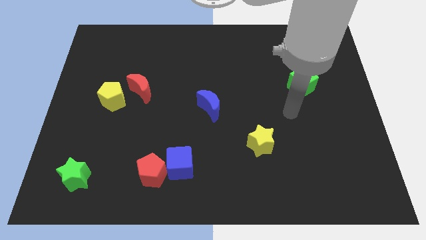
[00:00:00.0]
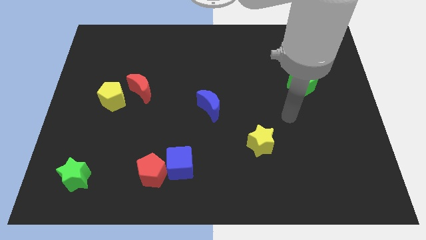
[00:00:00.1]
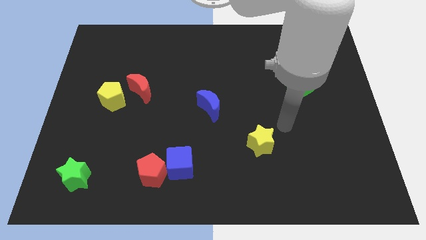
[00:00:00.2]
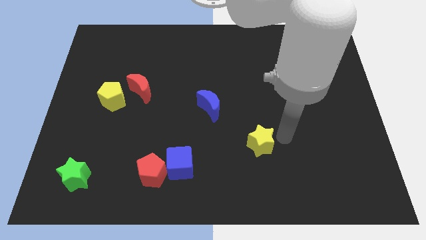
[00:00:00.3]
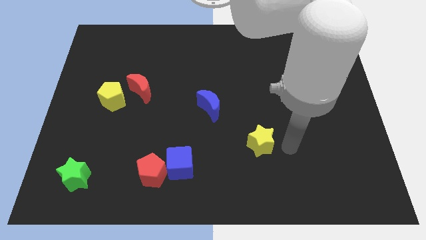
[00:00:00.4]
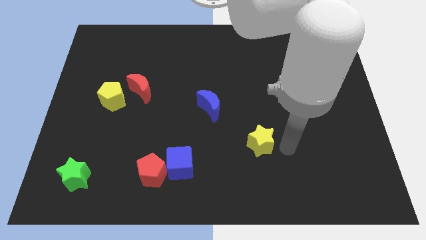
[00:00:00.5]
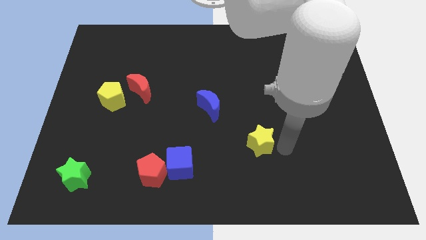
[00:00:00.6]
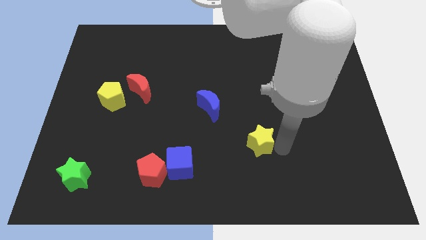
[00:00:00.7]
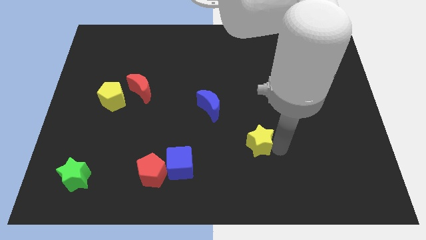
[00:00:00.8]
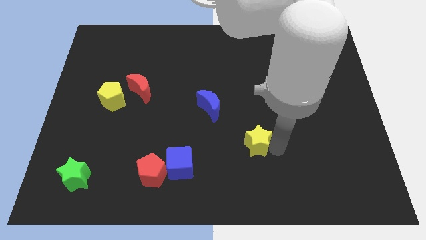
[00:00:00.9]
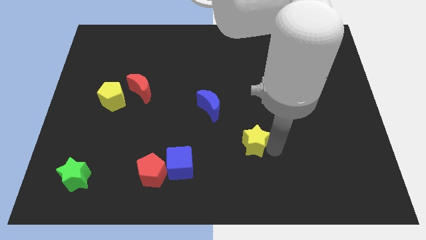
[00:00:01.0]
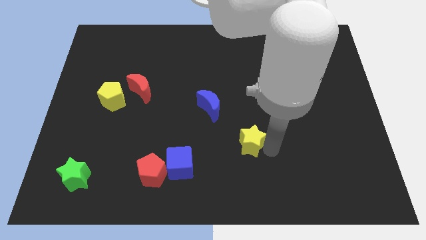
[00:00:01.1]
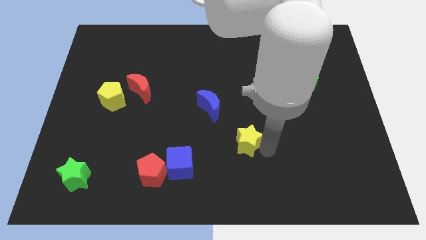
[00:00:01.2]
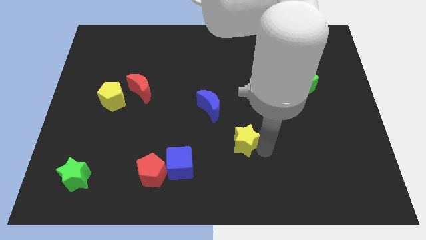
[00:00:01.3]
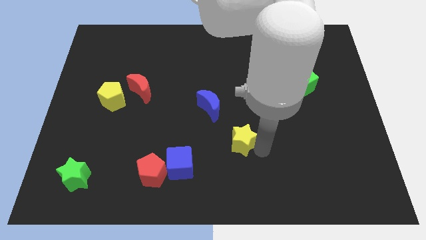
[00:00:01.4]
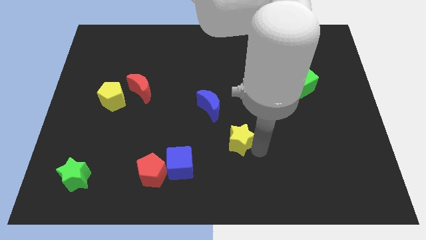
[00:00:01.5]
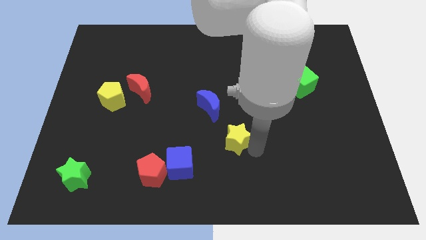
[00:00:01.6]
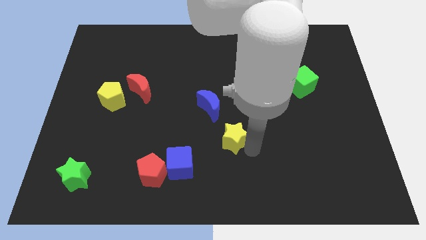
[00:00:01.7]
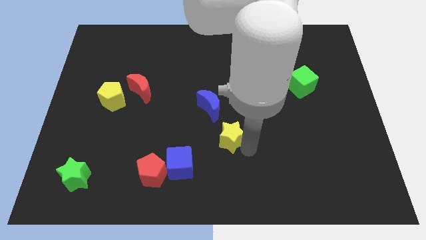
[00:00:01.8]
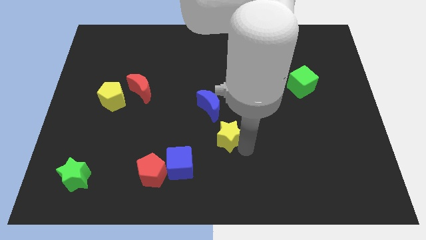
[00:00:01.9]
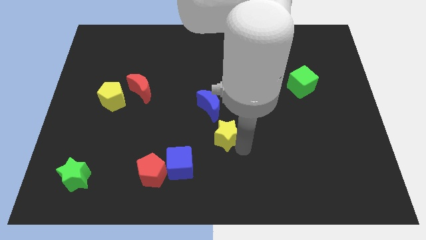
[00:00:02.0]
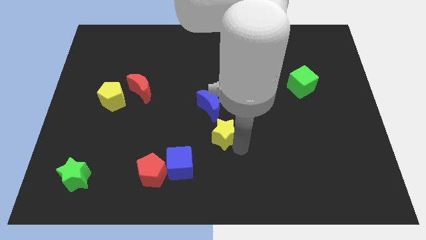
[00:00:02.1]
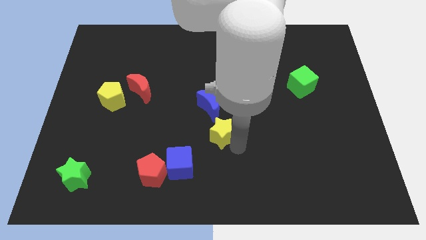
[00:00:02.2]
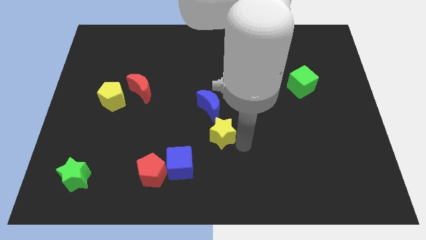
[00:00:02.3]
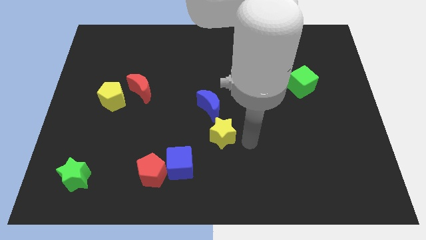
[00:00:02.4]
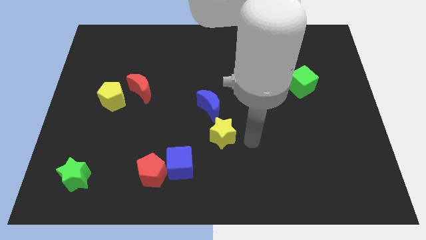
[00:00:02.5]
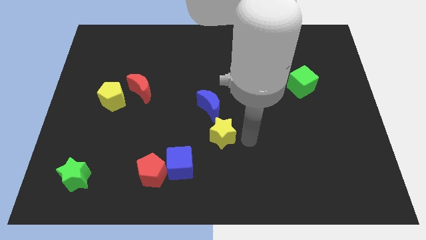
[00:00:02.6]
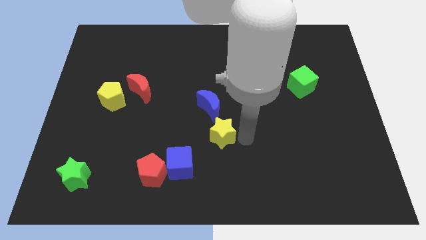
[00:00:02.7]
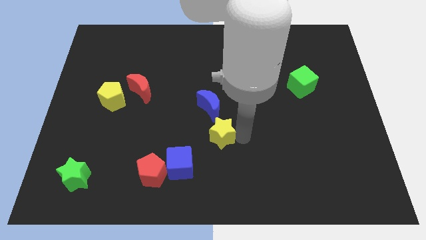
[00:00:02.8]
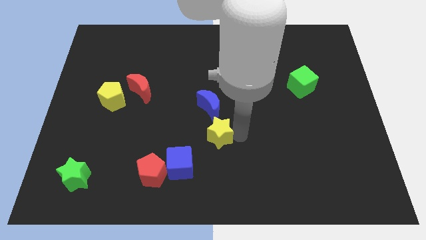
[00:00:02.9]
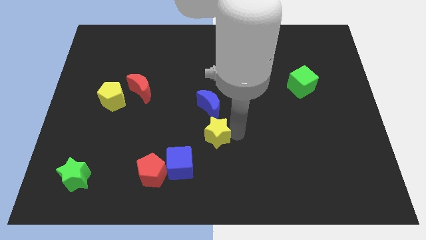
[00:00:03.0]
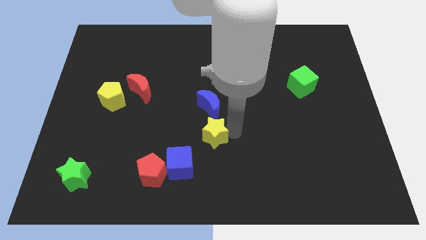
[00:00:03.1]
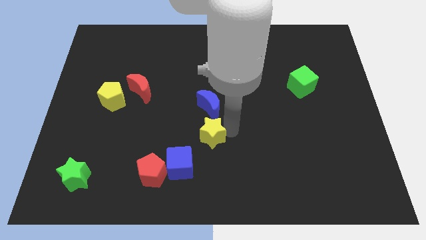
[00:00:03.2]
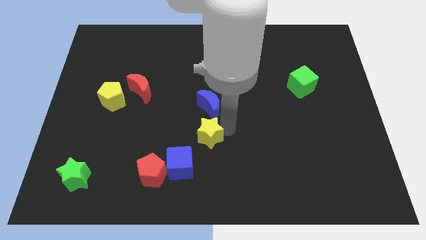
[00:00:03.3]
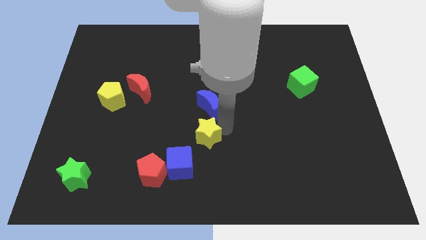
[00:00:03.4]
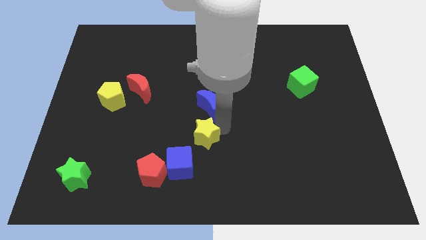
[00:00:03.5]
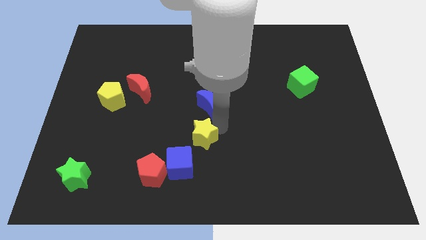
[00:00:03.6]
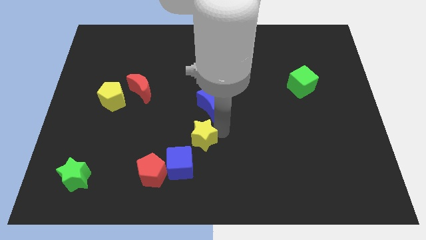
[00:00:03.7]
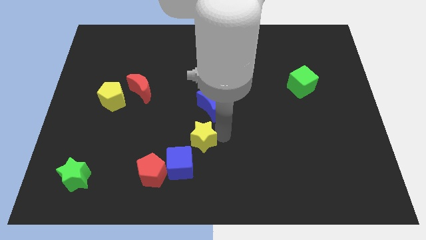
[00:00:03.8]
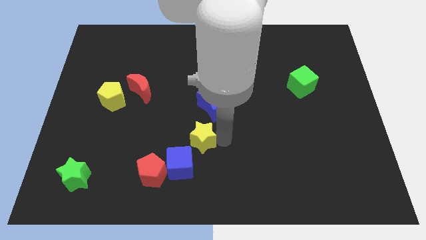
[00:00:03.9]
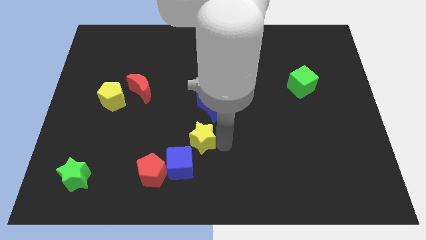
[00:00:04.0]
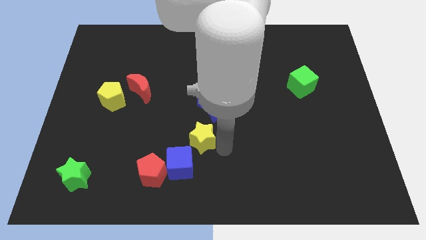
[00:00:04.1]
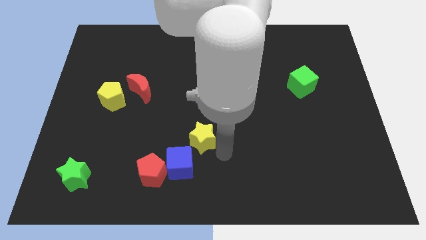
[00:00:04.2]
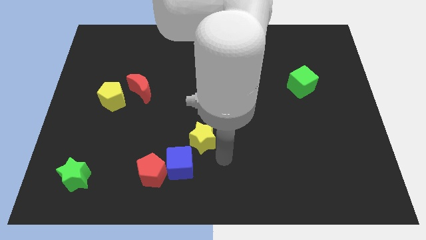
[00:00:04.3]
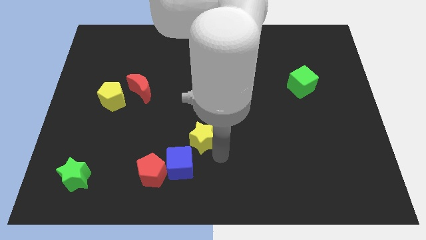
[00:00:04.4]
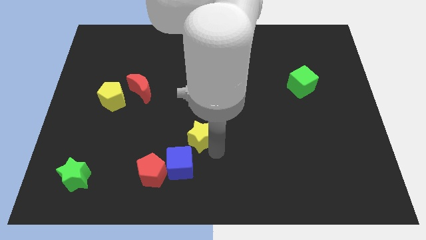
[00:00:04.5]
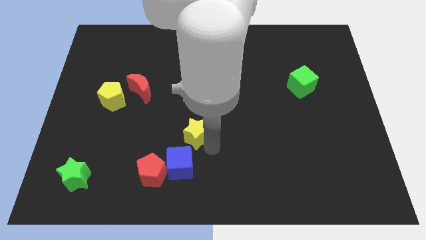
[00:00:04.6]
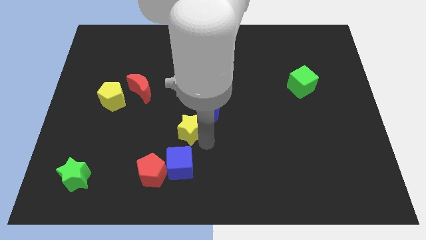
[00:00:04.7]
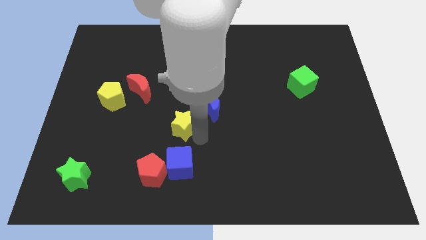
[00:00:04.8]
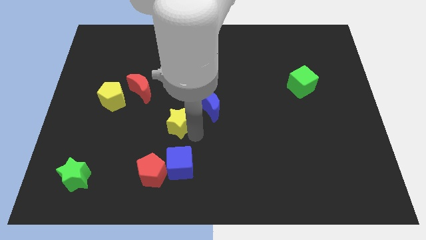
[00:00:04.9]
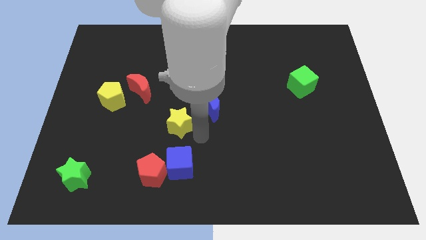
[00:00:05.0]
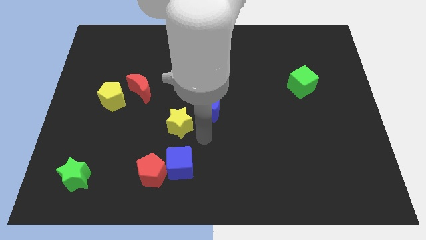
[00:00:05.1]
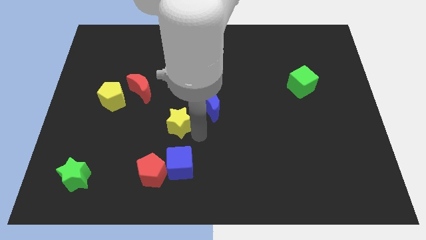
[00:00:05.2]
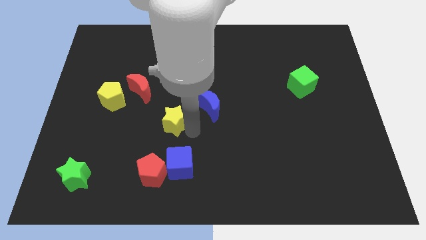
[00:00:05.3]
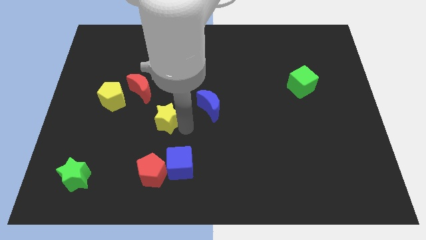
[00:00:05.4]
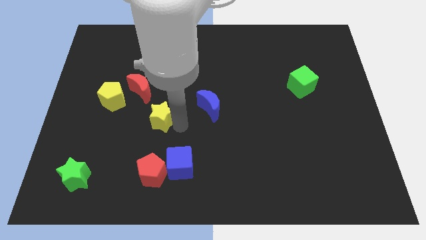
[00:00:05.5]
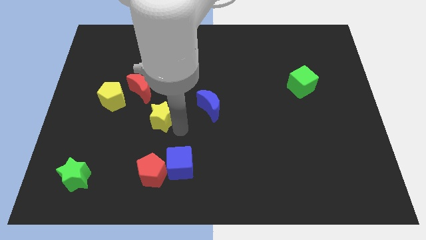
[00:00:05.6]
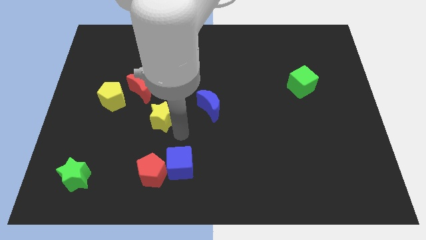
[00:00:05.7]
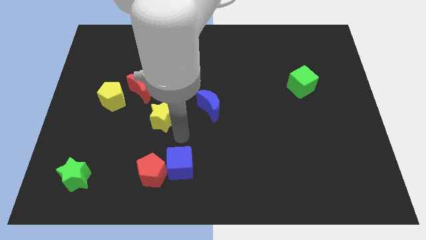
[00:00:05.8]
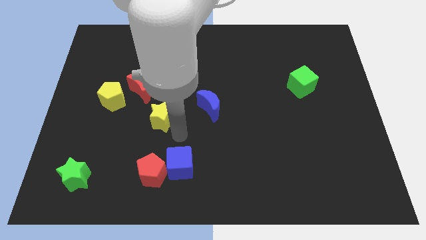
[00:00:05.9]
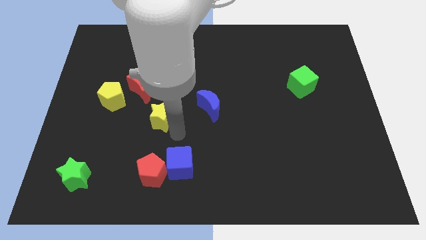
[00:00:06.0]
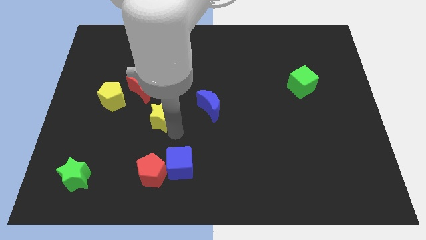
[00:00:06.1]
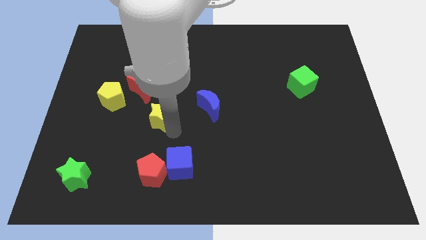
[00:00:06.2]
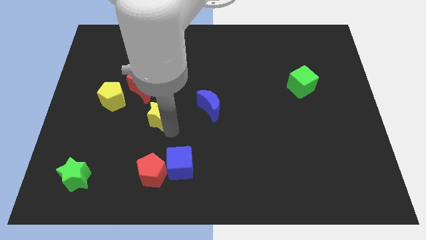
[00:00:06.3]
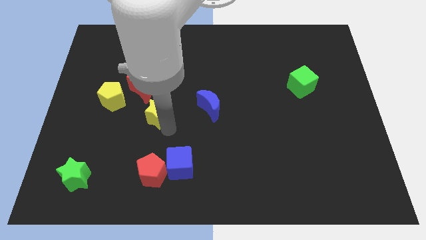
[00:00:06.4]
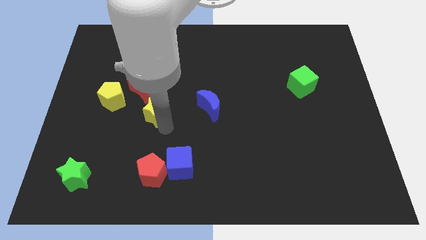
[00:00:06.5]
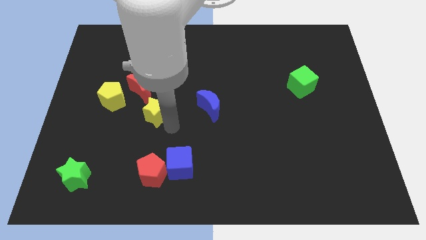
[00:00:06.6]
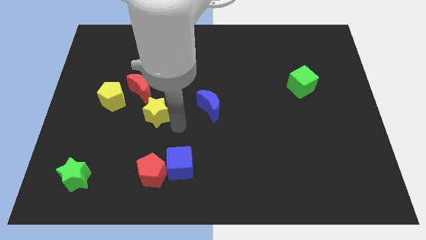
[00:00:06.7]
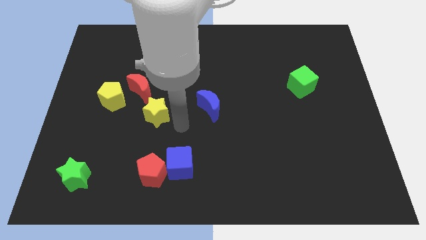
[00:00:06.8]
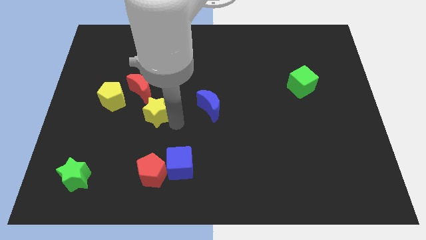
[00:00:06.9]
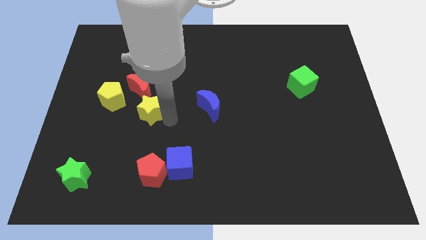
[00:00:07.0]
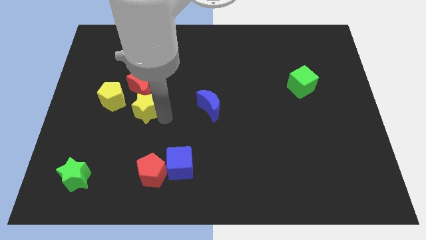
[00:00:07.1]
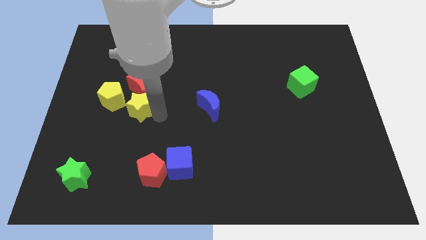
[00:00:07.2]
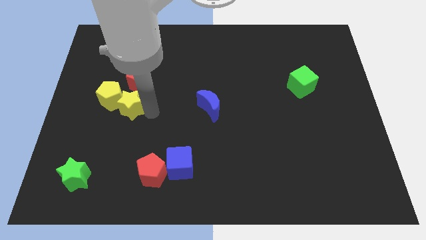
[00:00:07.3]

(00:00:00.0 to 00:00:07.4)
move the yellow star close to the yellow pentagon
